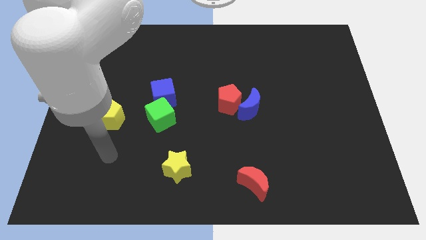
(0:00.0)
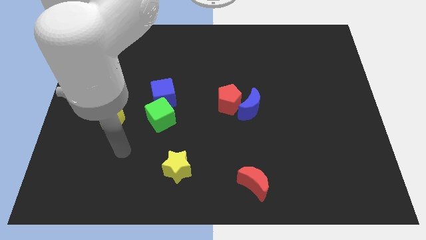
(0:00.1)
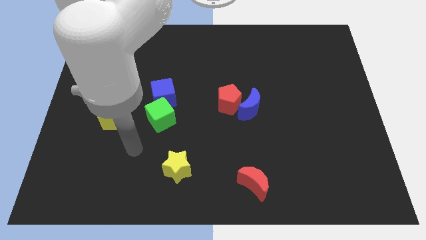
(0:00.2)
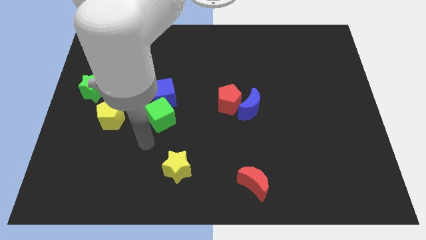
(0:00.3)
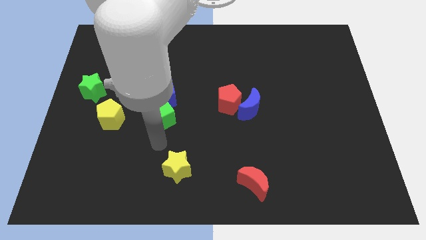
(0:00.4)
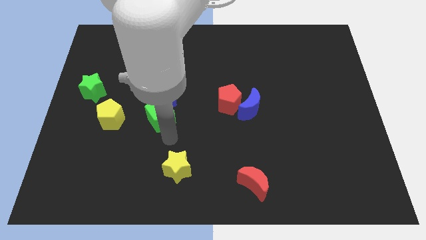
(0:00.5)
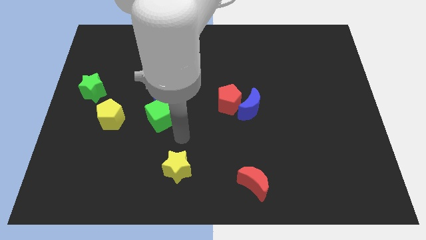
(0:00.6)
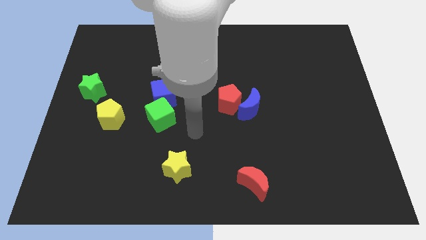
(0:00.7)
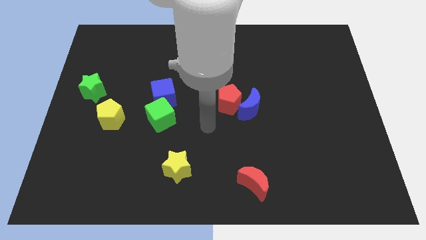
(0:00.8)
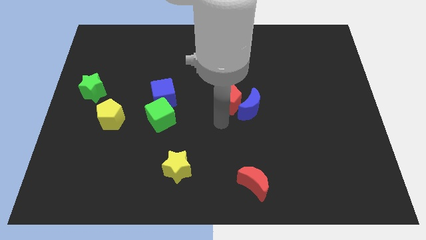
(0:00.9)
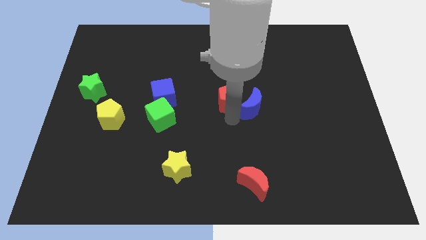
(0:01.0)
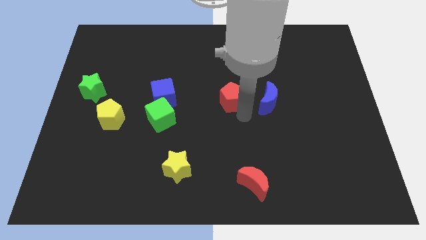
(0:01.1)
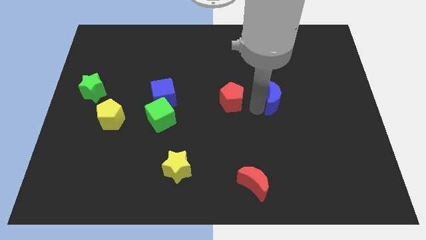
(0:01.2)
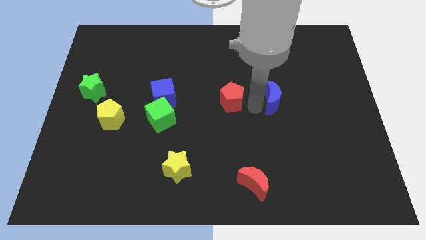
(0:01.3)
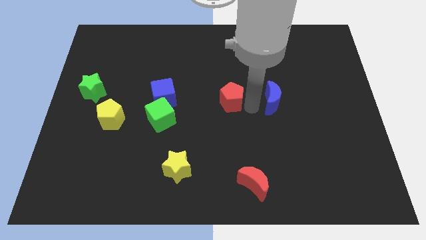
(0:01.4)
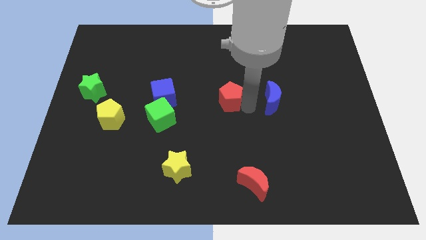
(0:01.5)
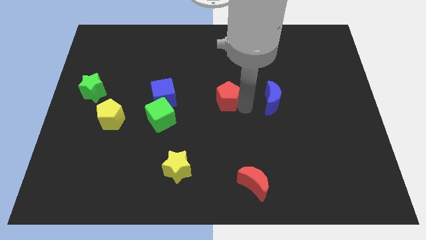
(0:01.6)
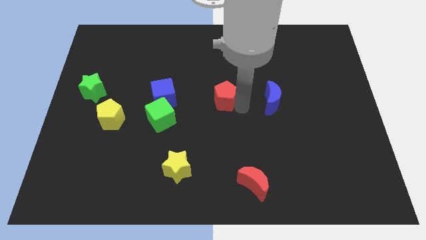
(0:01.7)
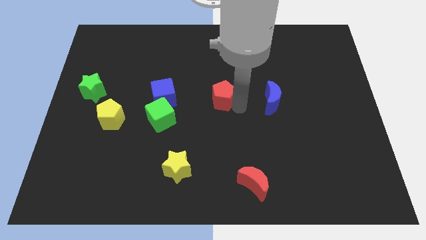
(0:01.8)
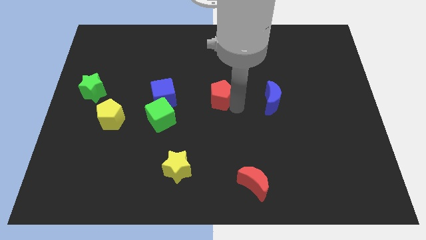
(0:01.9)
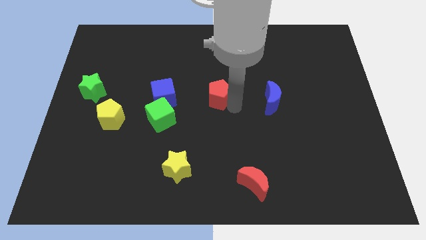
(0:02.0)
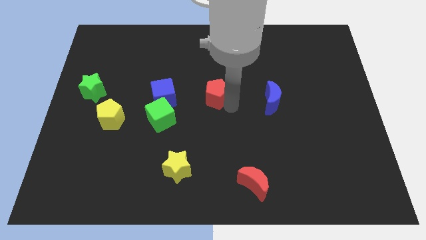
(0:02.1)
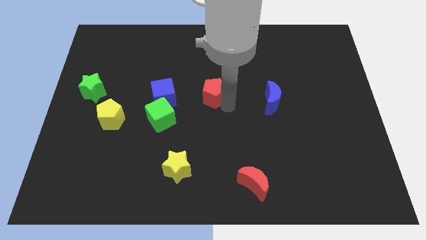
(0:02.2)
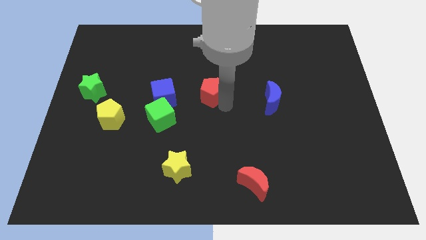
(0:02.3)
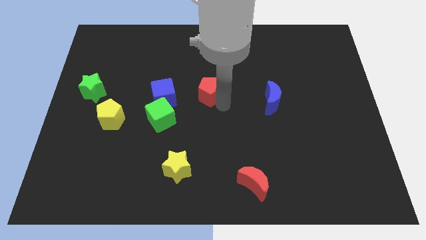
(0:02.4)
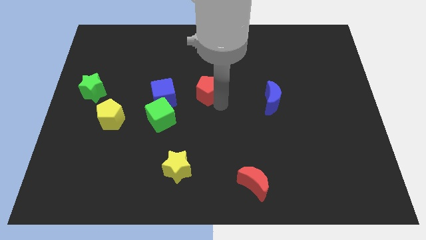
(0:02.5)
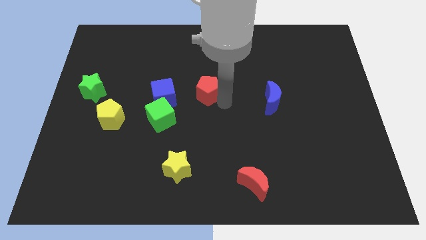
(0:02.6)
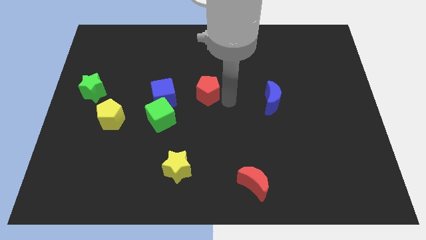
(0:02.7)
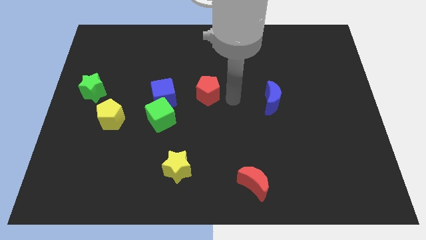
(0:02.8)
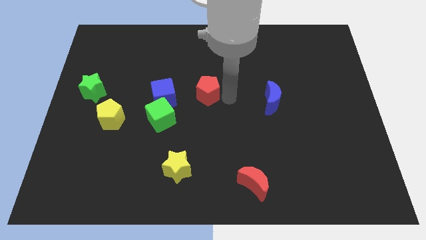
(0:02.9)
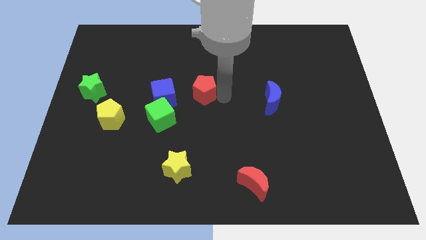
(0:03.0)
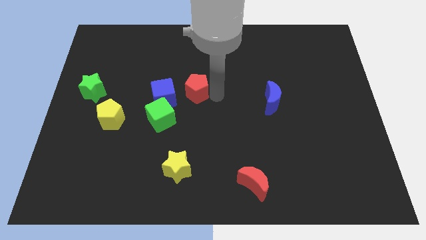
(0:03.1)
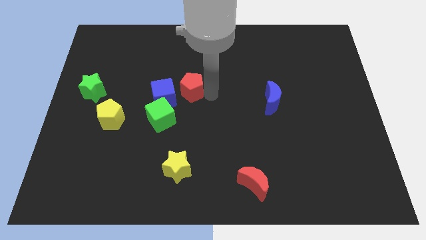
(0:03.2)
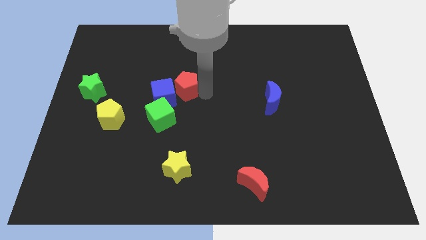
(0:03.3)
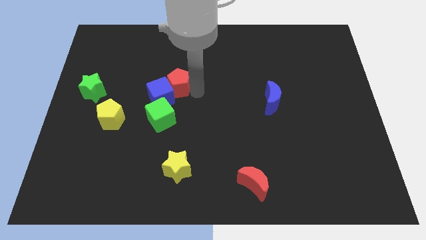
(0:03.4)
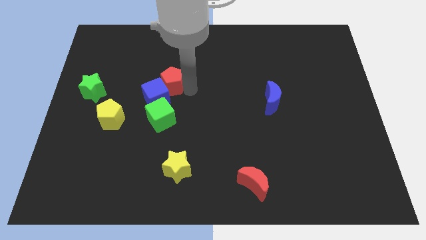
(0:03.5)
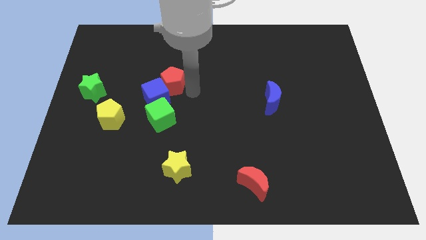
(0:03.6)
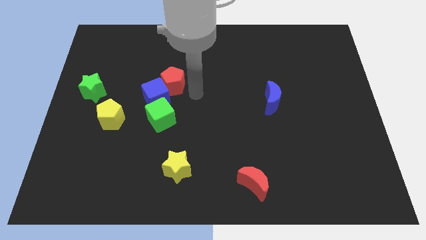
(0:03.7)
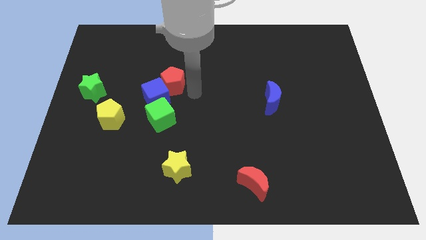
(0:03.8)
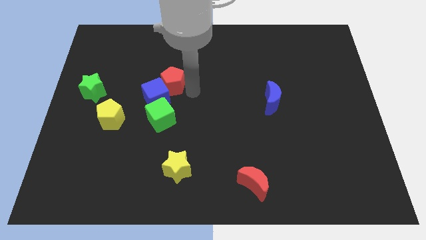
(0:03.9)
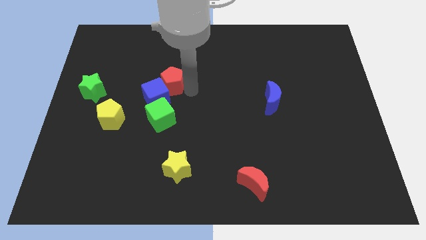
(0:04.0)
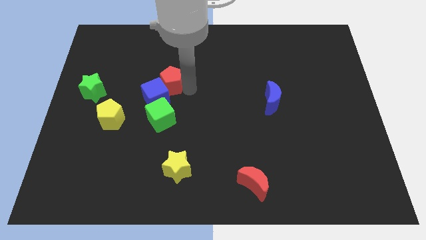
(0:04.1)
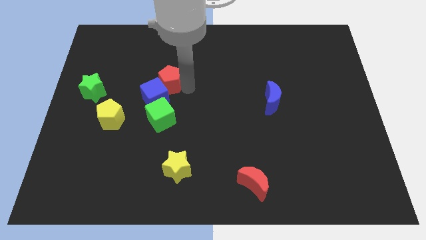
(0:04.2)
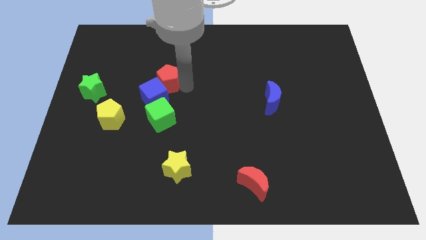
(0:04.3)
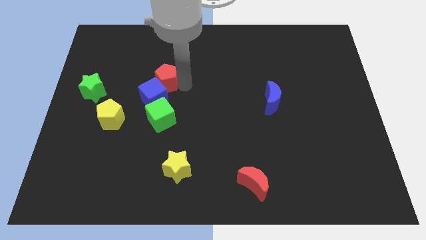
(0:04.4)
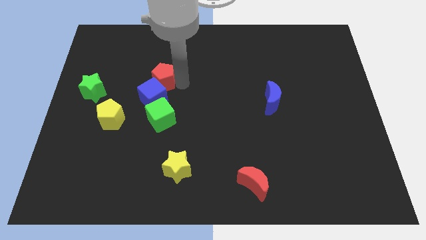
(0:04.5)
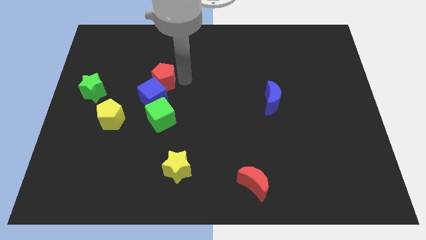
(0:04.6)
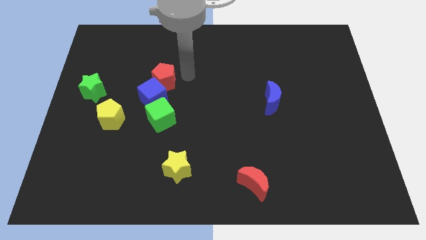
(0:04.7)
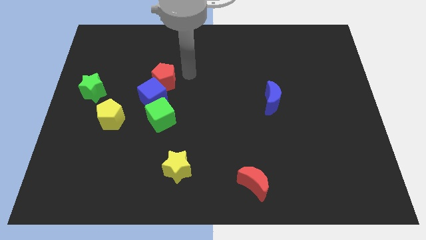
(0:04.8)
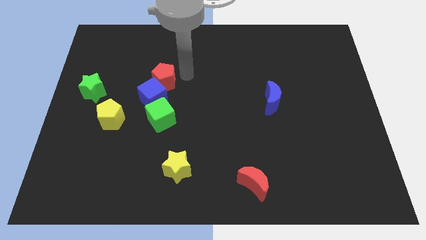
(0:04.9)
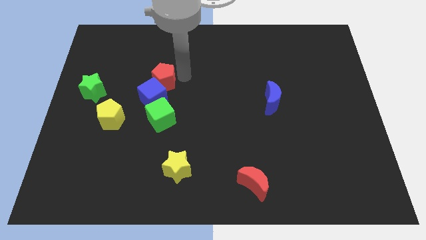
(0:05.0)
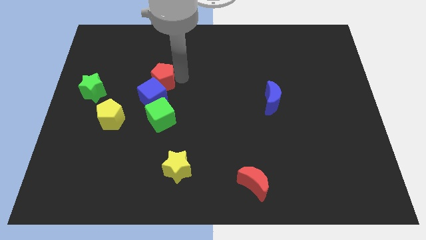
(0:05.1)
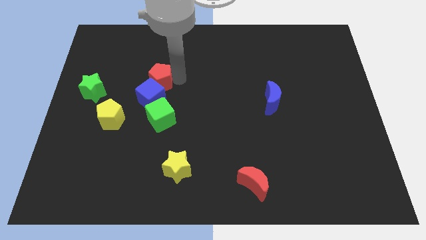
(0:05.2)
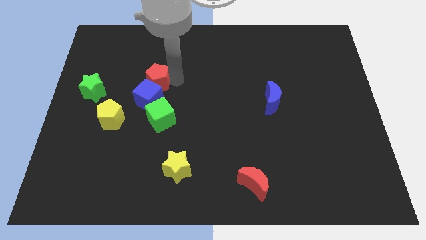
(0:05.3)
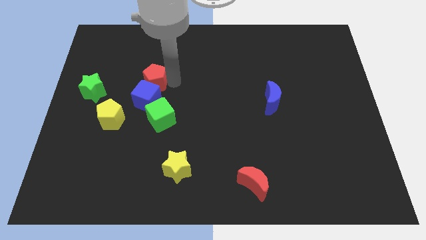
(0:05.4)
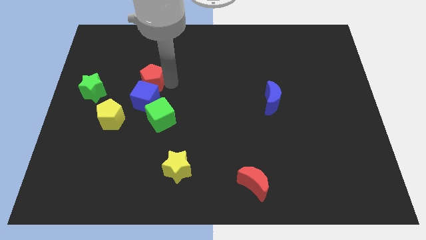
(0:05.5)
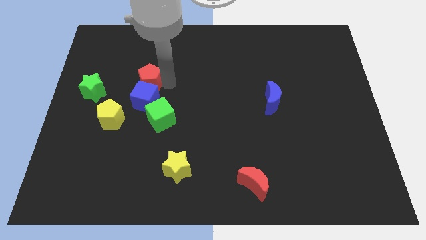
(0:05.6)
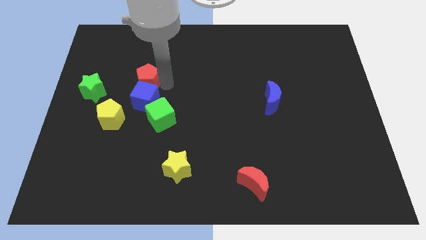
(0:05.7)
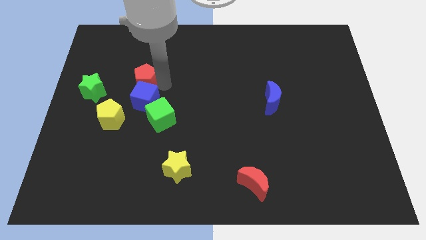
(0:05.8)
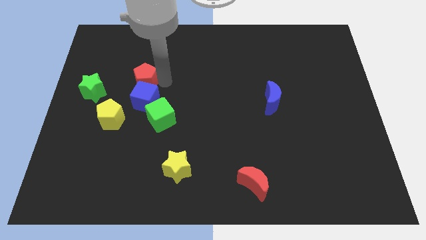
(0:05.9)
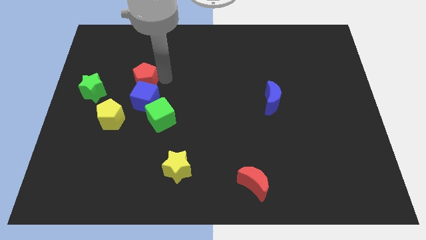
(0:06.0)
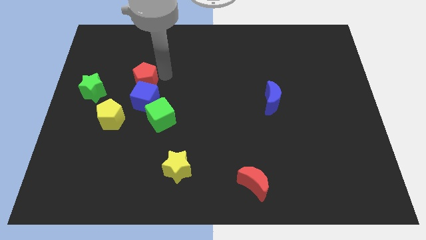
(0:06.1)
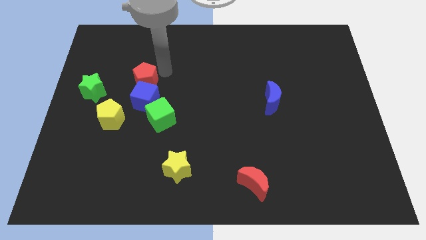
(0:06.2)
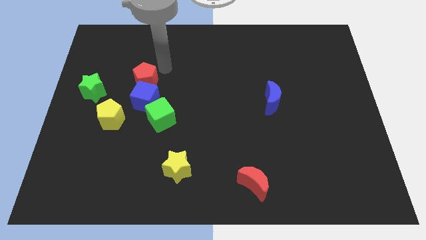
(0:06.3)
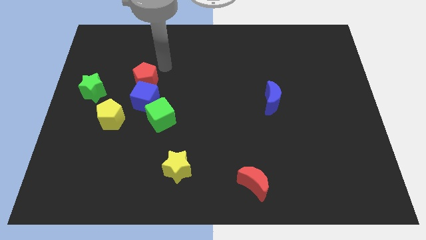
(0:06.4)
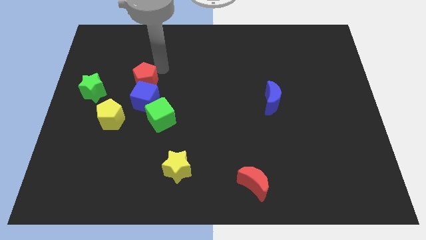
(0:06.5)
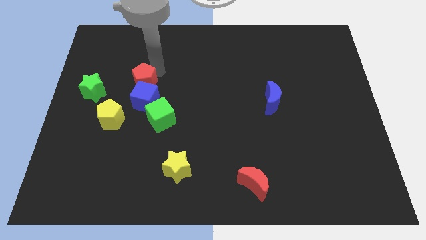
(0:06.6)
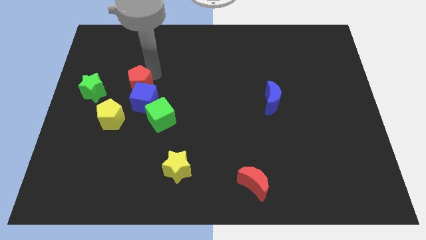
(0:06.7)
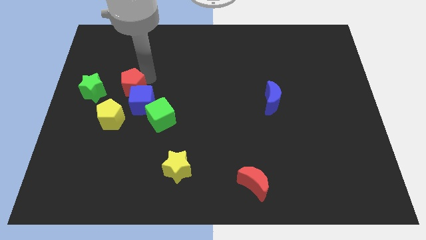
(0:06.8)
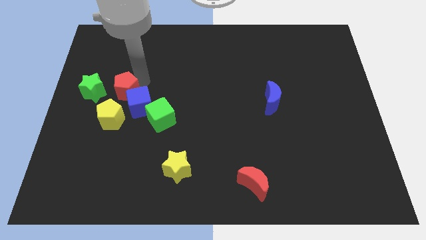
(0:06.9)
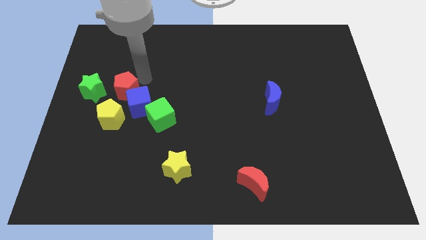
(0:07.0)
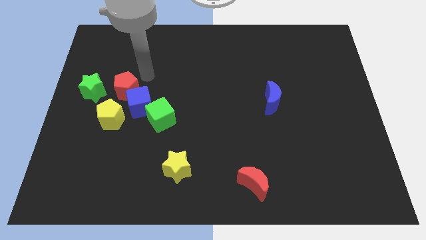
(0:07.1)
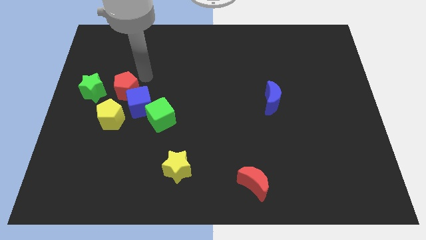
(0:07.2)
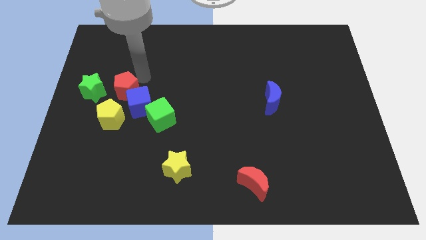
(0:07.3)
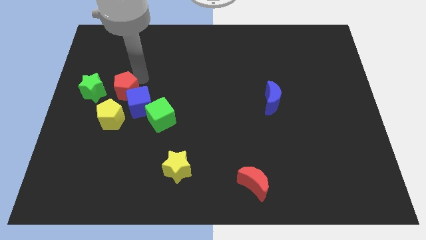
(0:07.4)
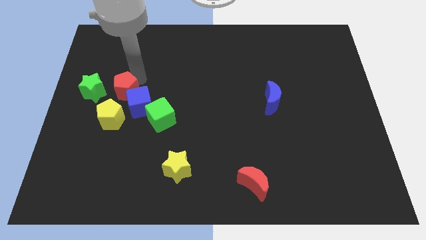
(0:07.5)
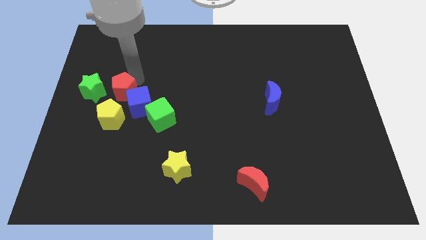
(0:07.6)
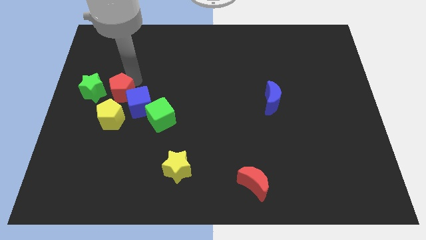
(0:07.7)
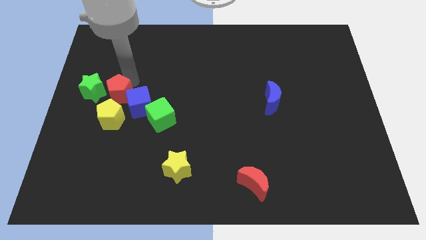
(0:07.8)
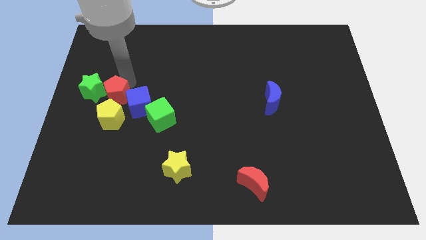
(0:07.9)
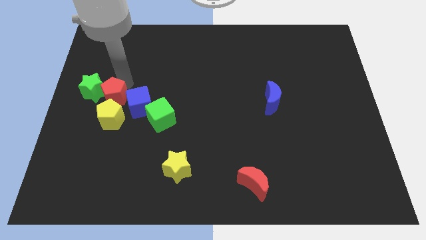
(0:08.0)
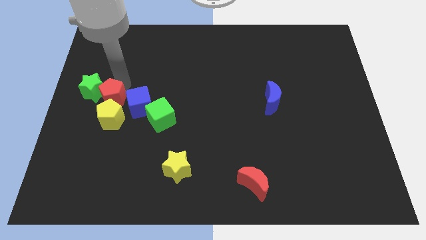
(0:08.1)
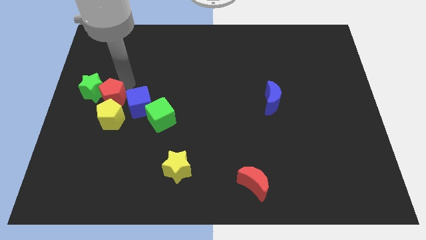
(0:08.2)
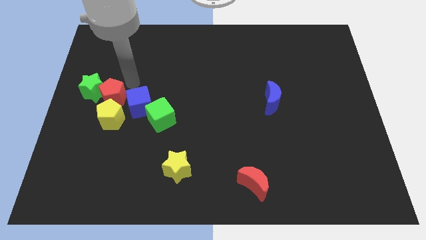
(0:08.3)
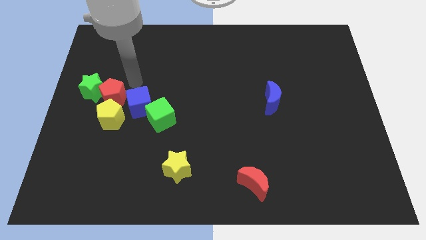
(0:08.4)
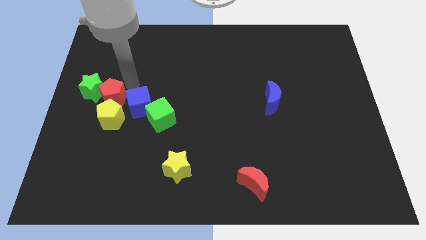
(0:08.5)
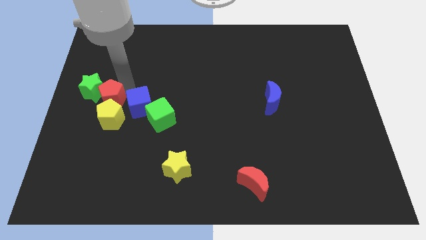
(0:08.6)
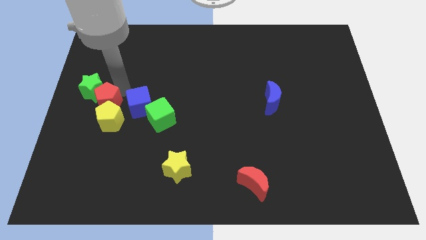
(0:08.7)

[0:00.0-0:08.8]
slide the red pentagon to the left side of the board
